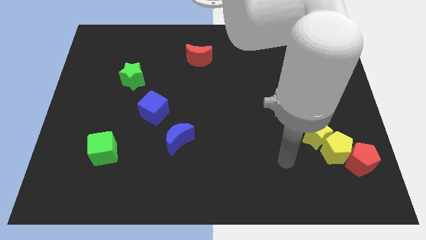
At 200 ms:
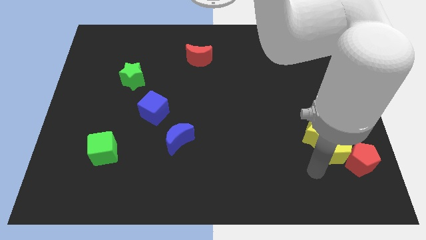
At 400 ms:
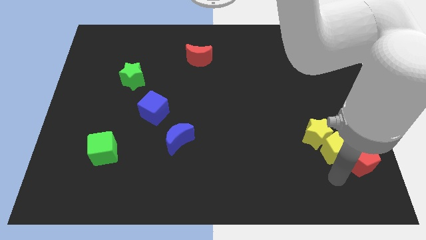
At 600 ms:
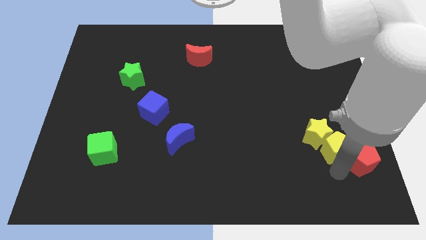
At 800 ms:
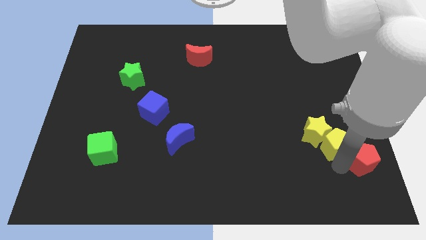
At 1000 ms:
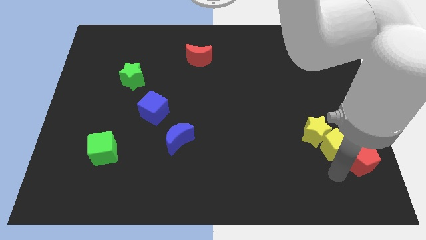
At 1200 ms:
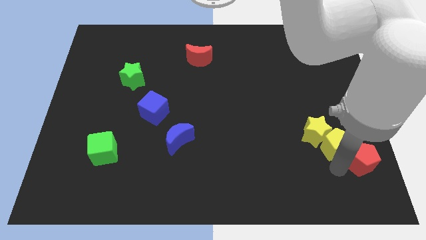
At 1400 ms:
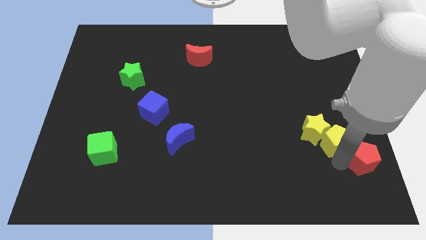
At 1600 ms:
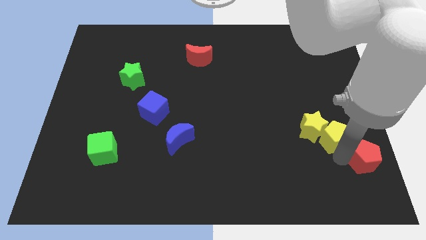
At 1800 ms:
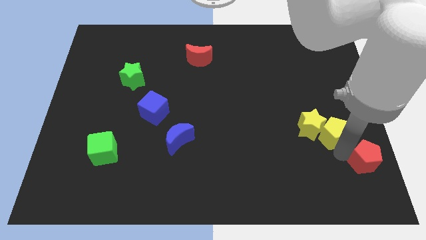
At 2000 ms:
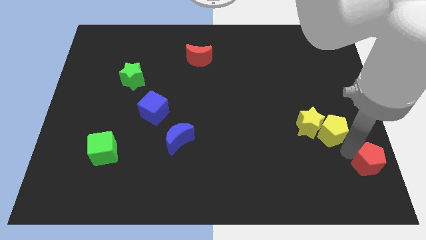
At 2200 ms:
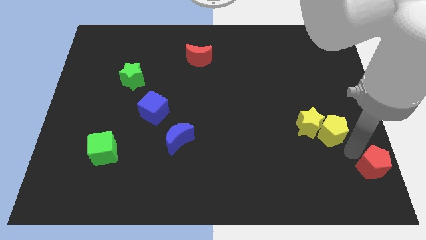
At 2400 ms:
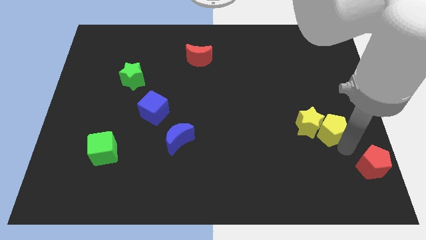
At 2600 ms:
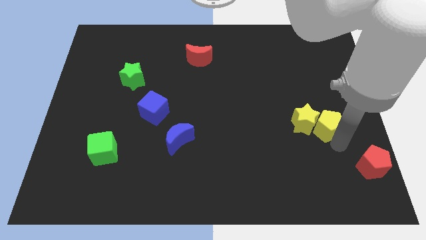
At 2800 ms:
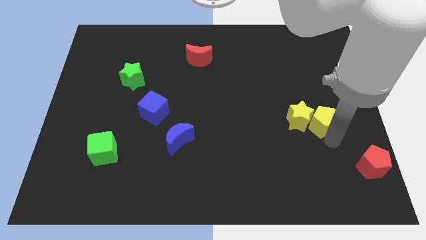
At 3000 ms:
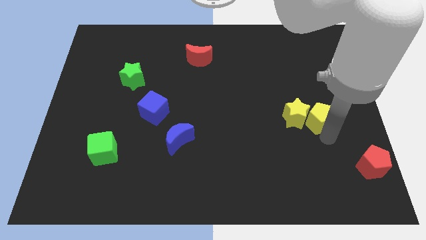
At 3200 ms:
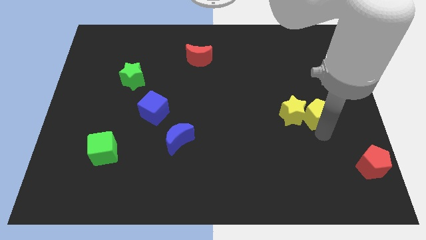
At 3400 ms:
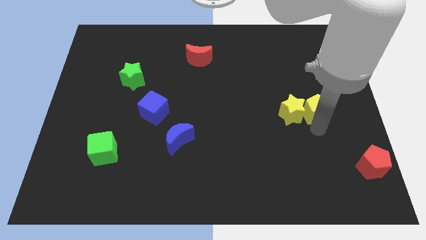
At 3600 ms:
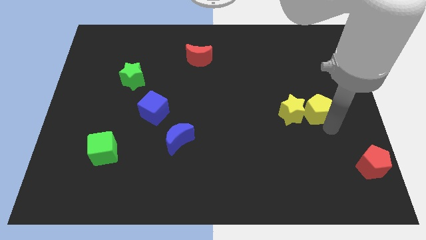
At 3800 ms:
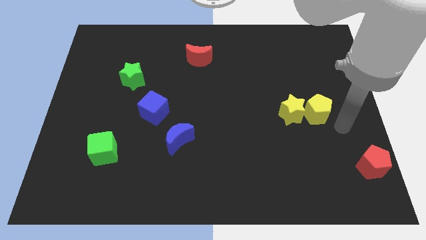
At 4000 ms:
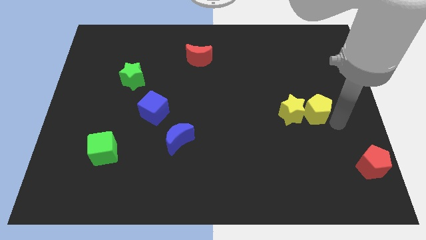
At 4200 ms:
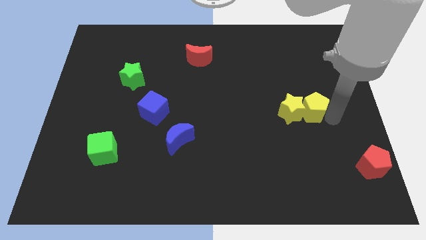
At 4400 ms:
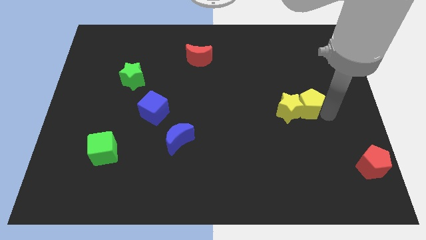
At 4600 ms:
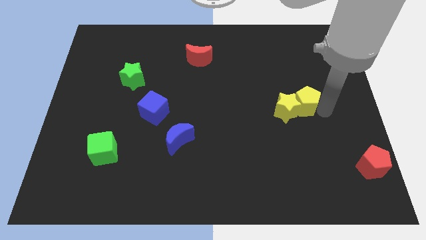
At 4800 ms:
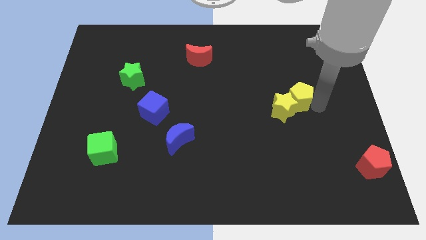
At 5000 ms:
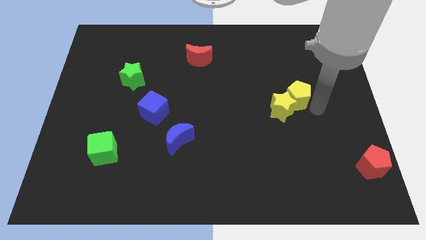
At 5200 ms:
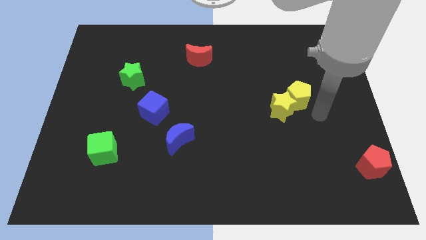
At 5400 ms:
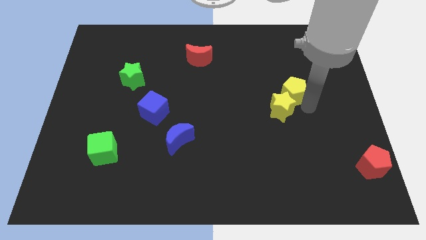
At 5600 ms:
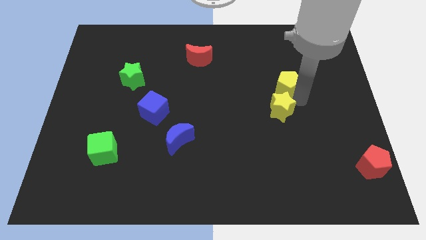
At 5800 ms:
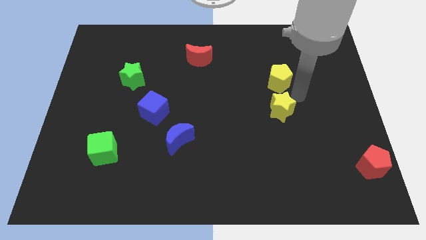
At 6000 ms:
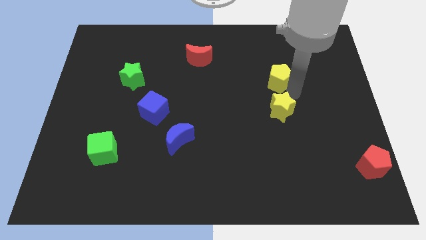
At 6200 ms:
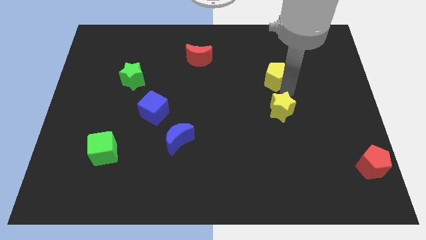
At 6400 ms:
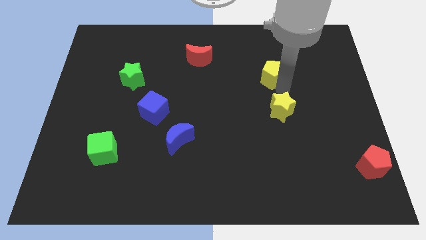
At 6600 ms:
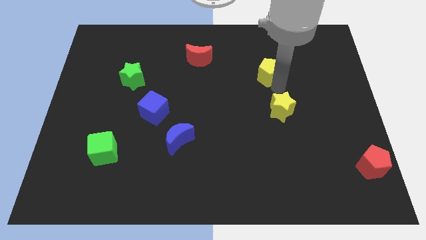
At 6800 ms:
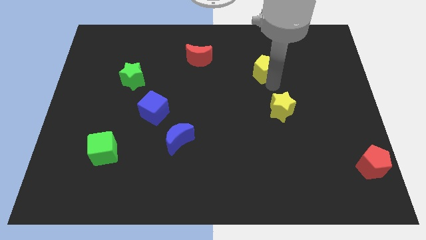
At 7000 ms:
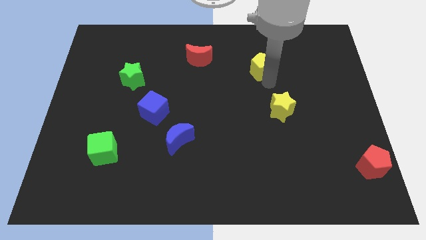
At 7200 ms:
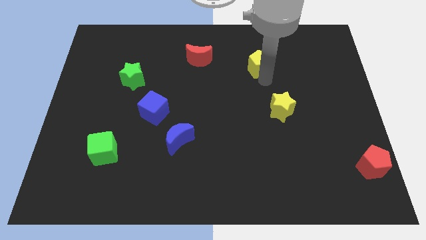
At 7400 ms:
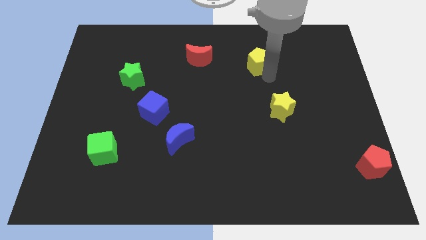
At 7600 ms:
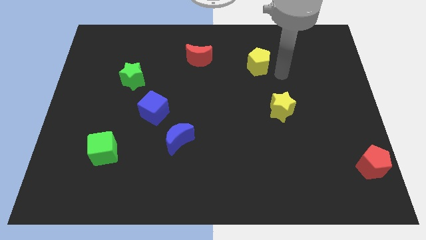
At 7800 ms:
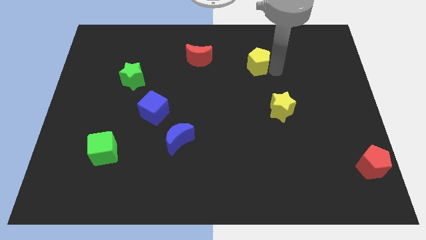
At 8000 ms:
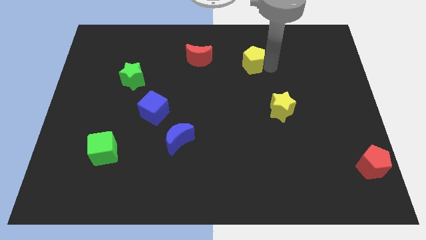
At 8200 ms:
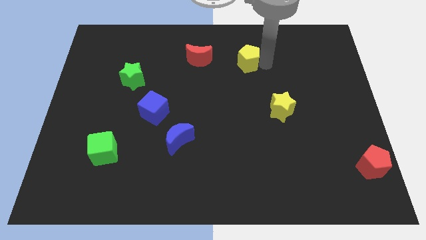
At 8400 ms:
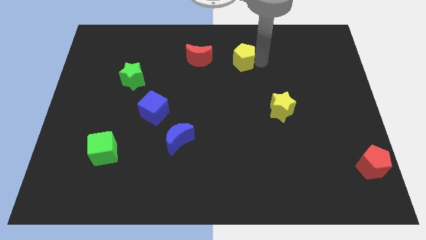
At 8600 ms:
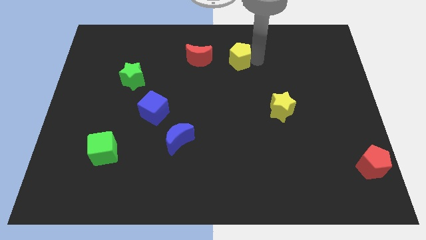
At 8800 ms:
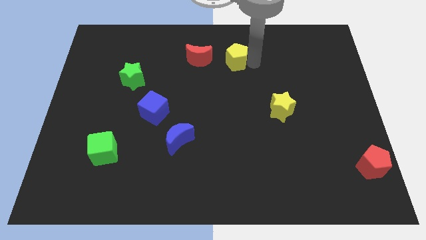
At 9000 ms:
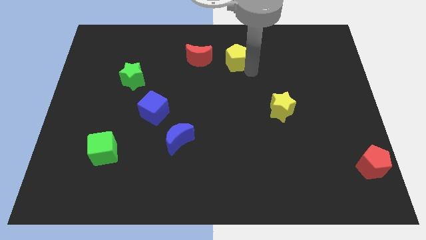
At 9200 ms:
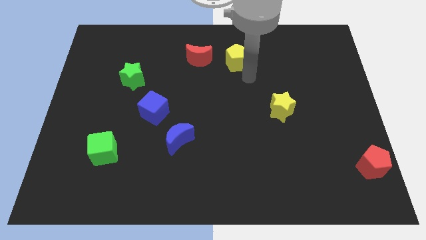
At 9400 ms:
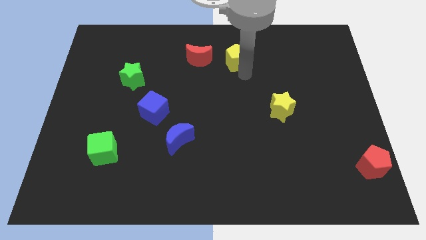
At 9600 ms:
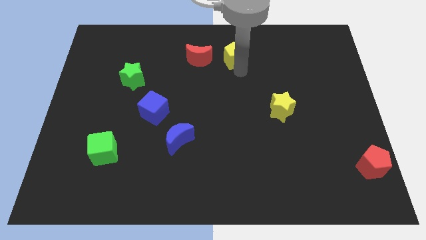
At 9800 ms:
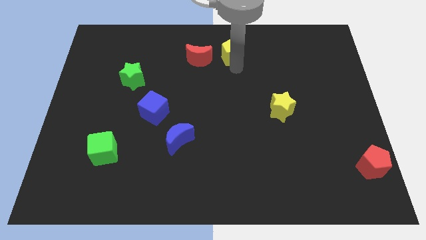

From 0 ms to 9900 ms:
put the yellow pentagon to the top side

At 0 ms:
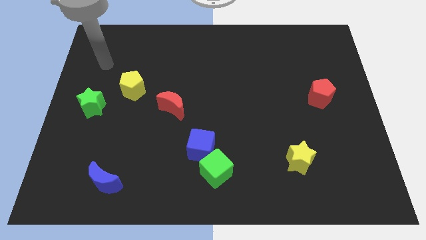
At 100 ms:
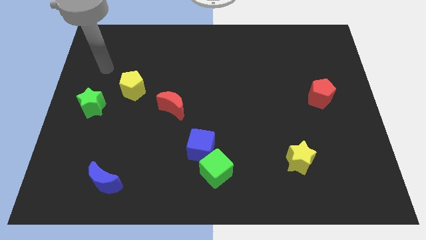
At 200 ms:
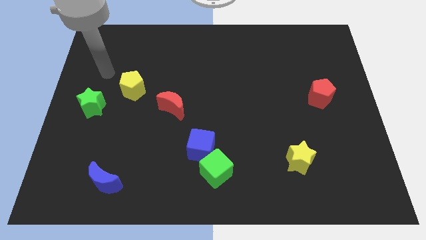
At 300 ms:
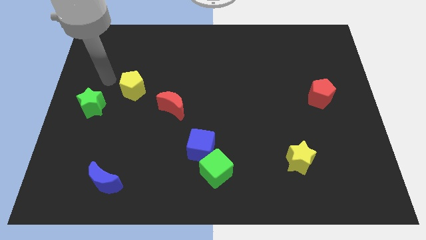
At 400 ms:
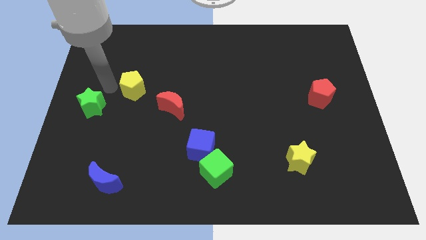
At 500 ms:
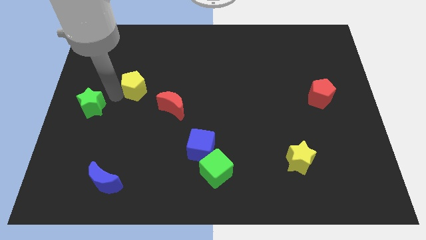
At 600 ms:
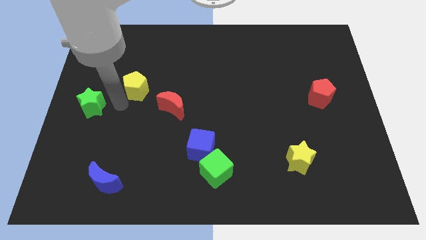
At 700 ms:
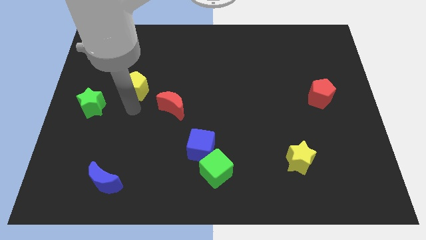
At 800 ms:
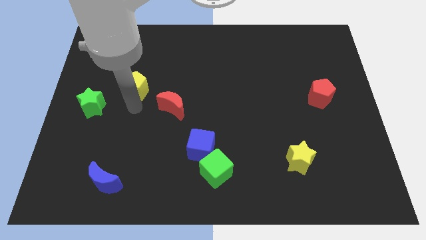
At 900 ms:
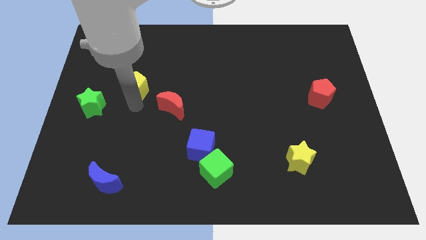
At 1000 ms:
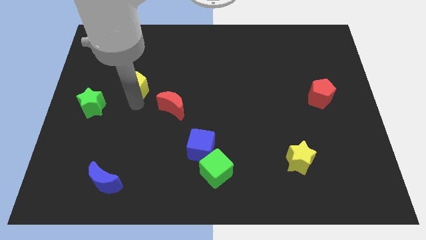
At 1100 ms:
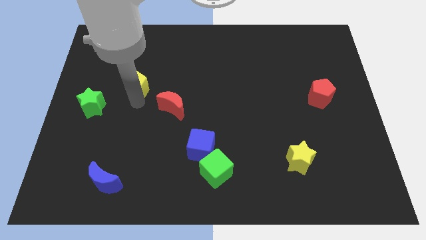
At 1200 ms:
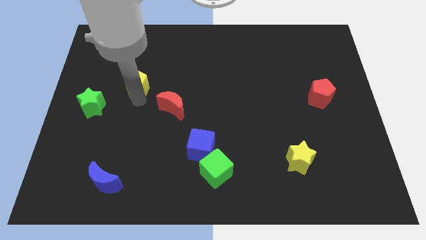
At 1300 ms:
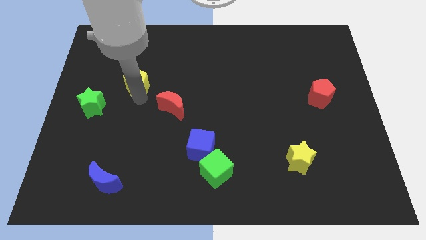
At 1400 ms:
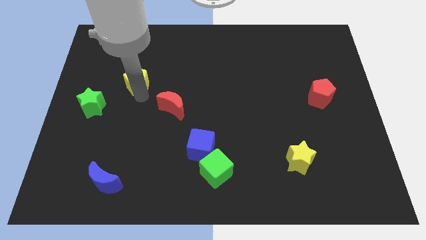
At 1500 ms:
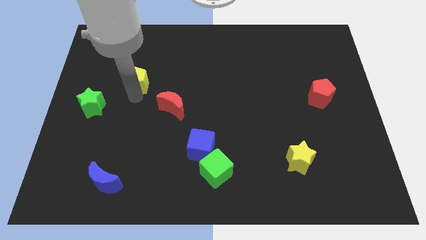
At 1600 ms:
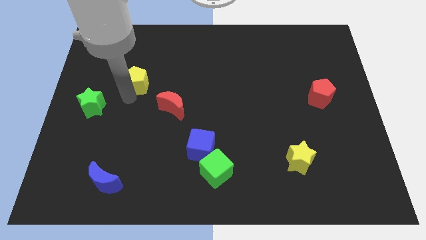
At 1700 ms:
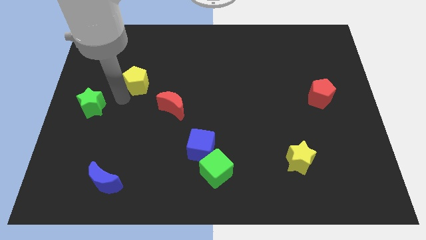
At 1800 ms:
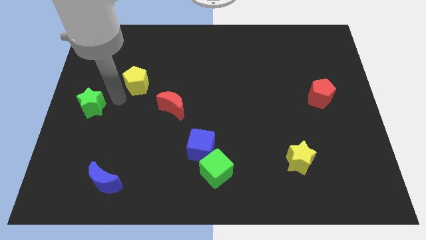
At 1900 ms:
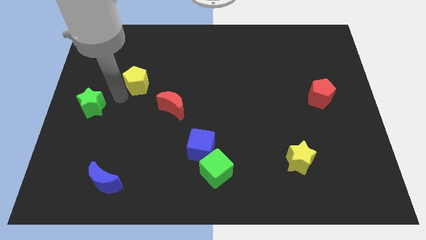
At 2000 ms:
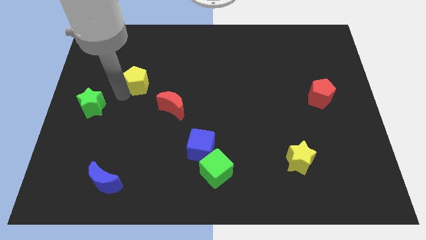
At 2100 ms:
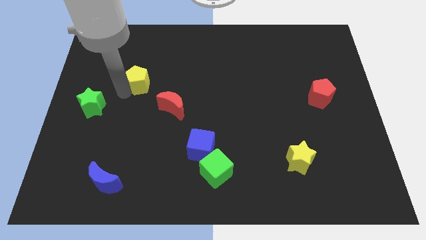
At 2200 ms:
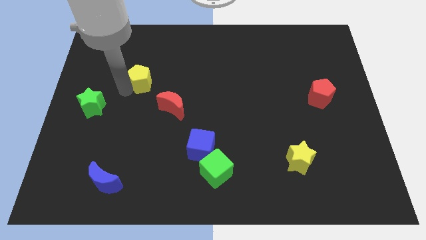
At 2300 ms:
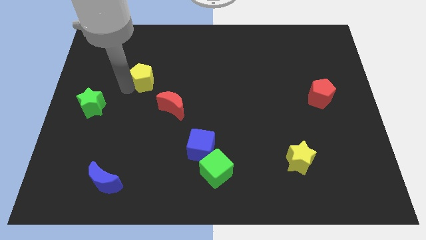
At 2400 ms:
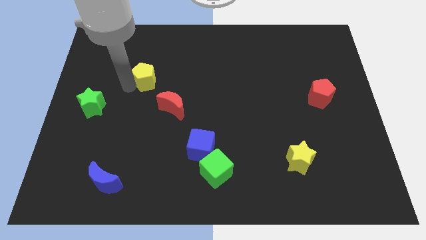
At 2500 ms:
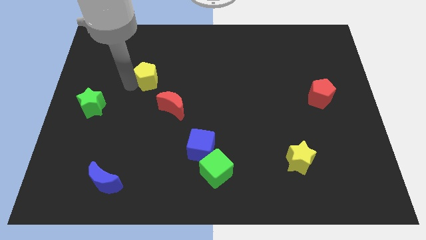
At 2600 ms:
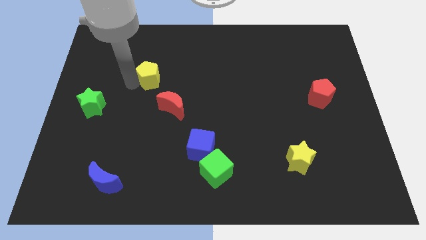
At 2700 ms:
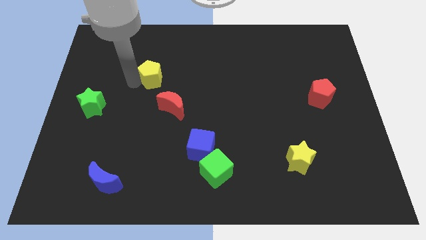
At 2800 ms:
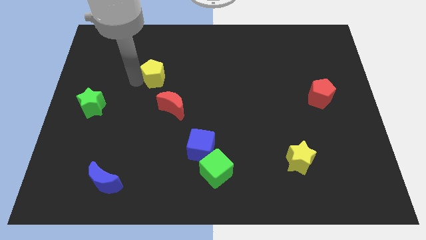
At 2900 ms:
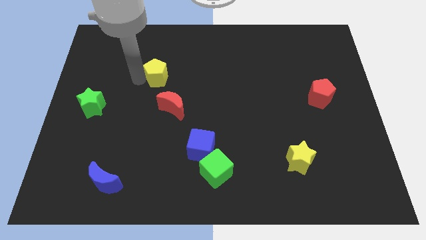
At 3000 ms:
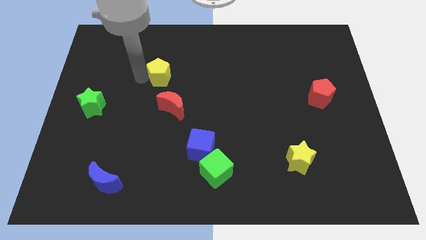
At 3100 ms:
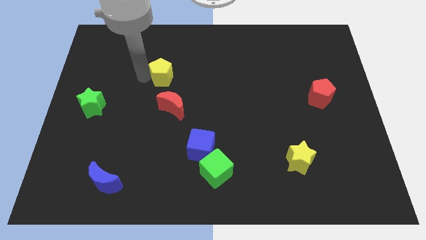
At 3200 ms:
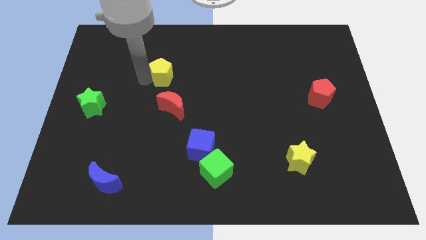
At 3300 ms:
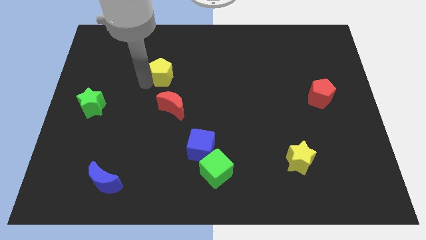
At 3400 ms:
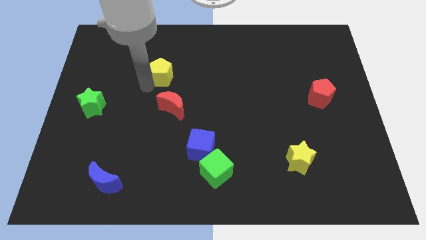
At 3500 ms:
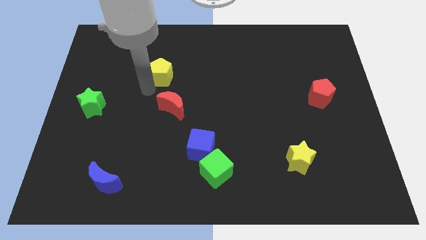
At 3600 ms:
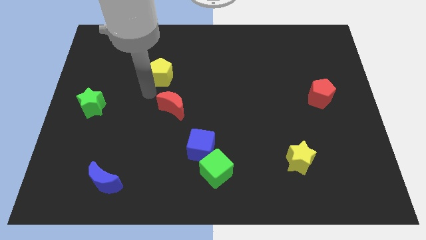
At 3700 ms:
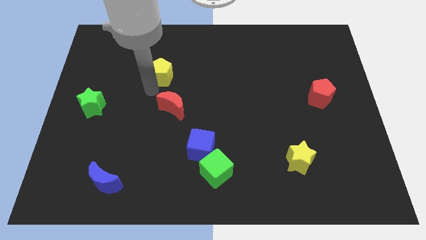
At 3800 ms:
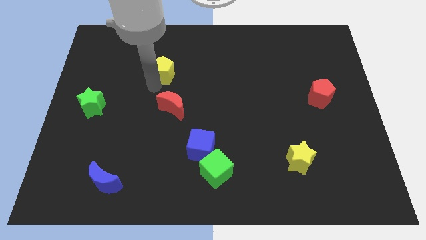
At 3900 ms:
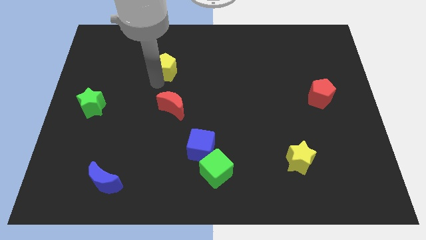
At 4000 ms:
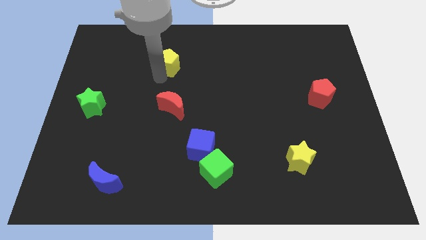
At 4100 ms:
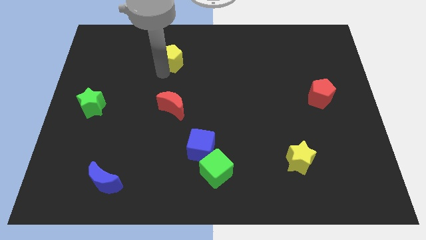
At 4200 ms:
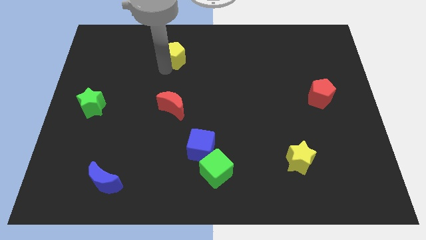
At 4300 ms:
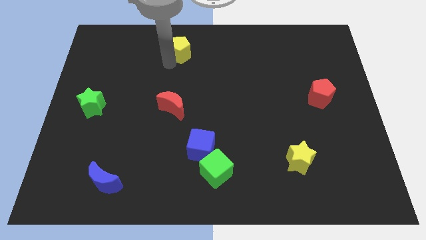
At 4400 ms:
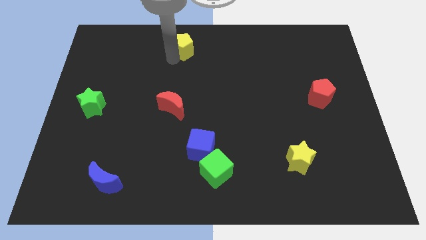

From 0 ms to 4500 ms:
slide the yellow pentagon to the top side
